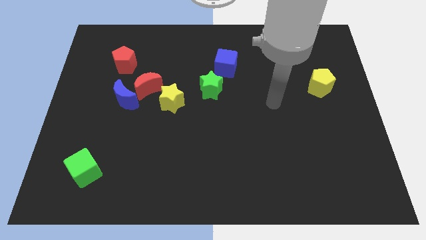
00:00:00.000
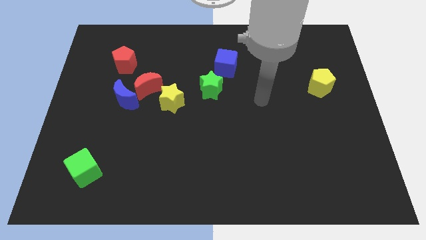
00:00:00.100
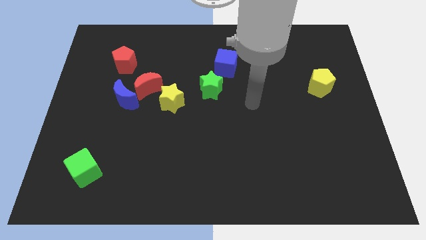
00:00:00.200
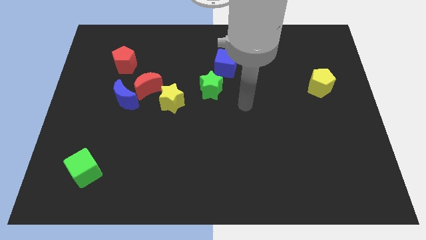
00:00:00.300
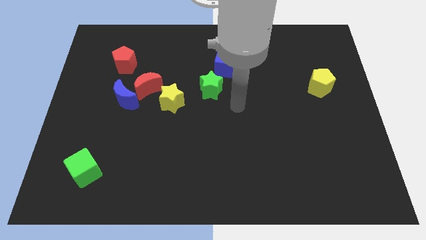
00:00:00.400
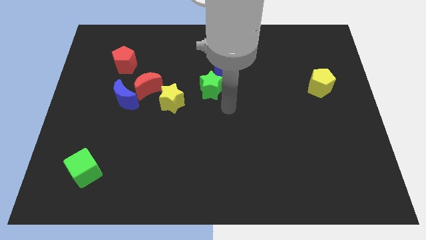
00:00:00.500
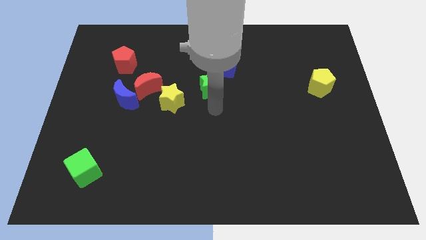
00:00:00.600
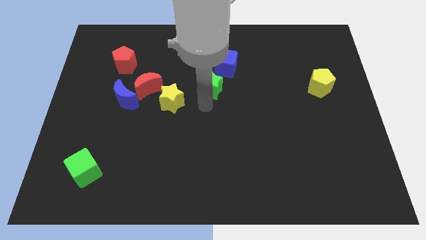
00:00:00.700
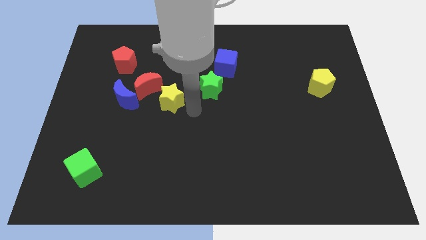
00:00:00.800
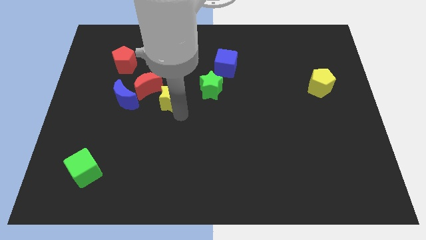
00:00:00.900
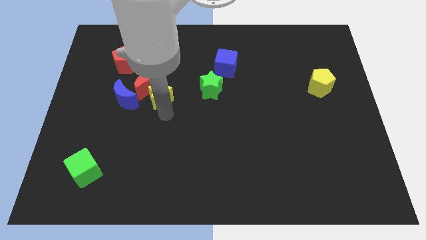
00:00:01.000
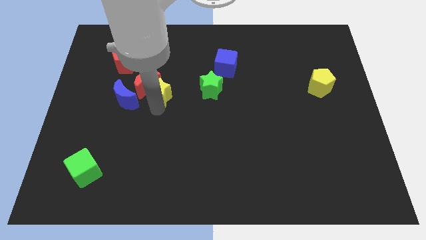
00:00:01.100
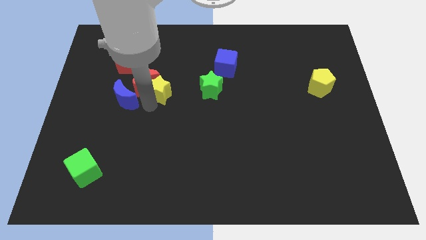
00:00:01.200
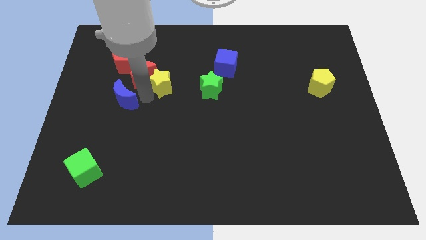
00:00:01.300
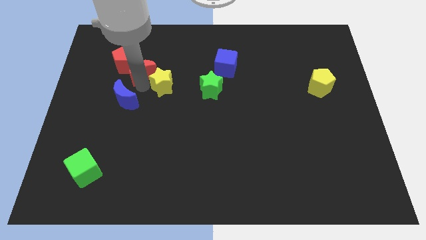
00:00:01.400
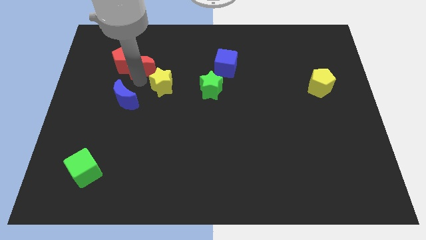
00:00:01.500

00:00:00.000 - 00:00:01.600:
move the blue moon away from the red moon

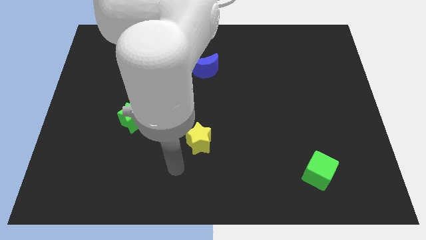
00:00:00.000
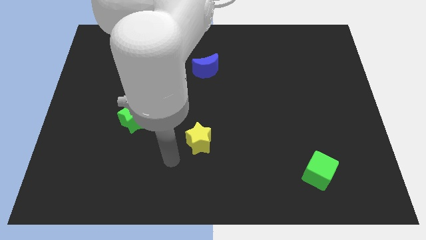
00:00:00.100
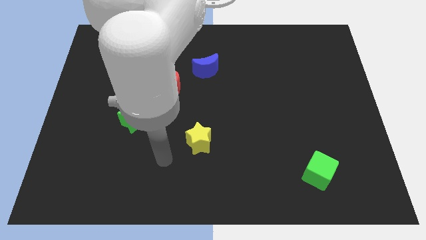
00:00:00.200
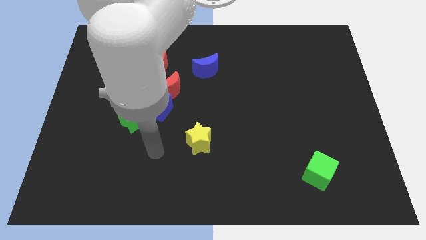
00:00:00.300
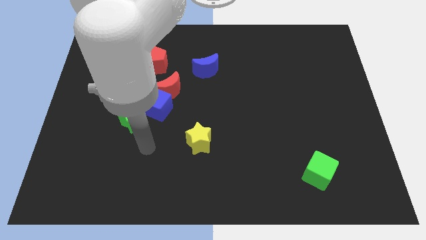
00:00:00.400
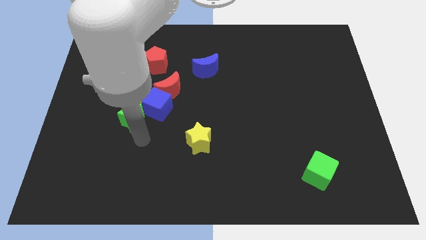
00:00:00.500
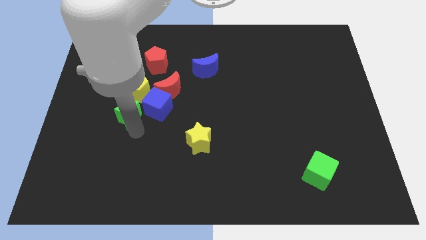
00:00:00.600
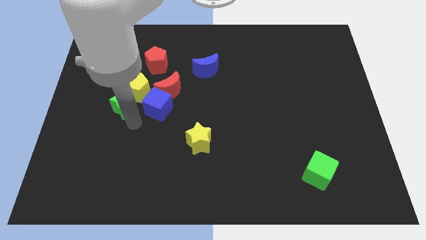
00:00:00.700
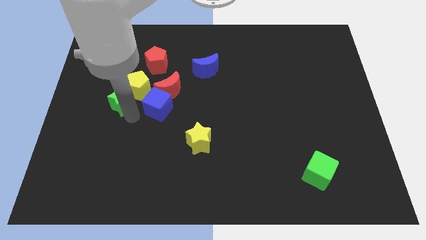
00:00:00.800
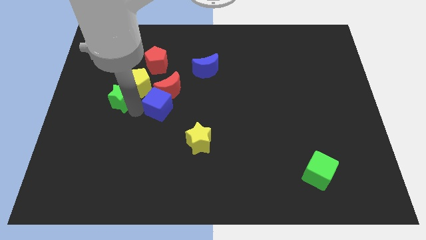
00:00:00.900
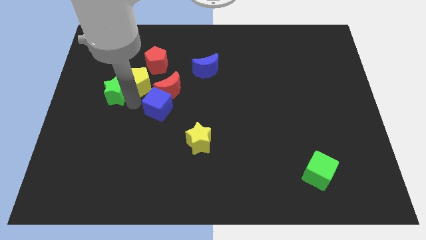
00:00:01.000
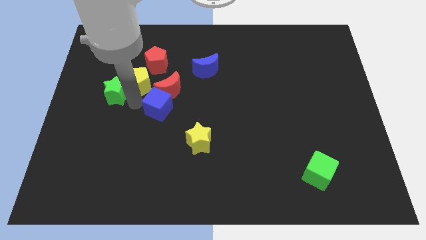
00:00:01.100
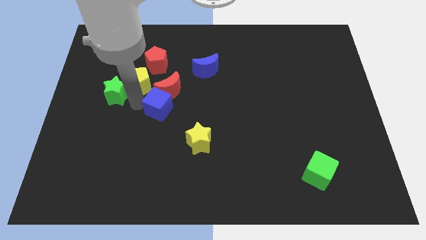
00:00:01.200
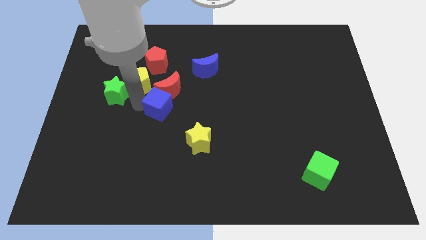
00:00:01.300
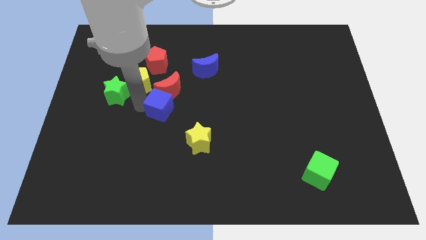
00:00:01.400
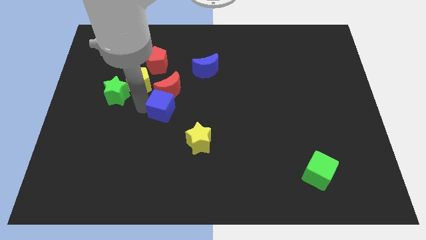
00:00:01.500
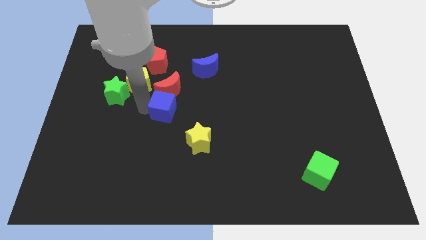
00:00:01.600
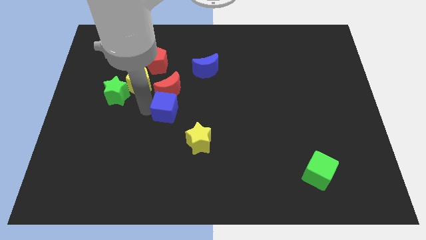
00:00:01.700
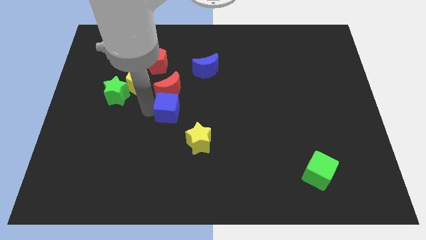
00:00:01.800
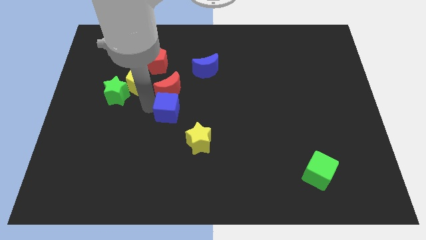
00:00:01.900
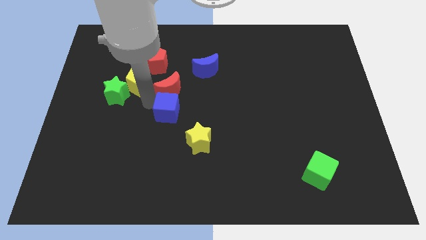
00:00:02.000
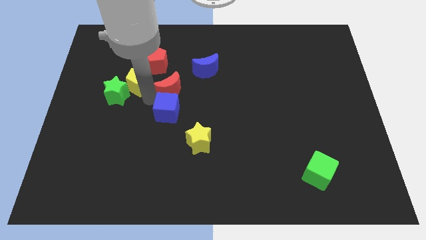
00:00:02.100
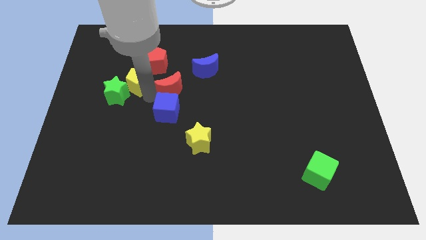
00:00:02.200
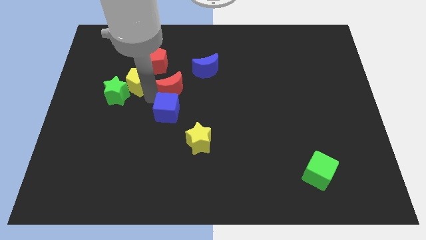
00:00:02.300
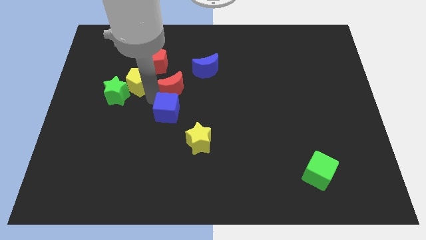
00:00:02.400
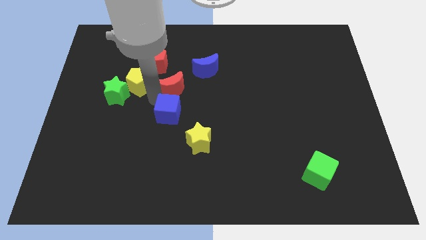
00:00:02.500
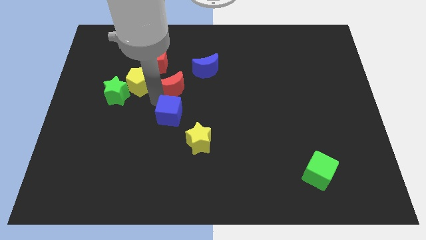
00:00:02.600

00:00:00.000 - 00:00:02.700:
pull the blue cube apart from the clump

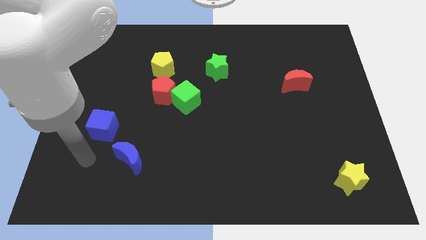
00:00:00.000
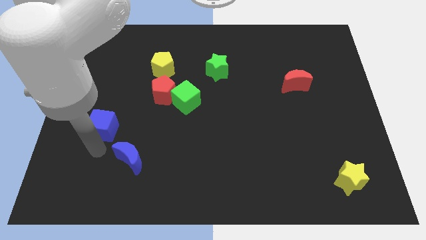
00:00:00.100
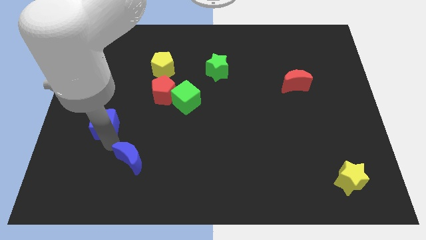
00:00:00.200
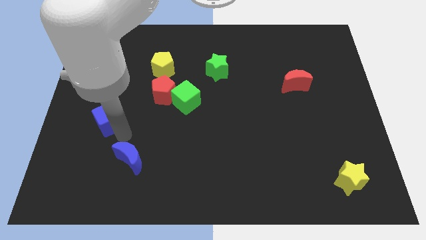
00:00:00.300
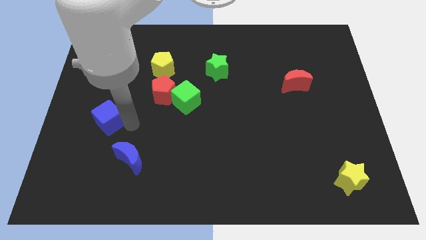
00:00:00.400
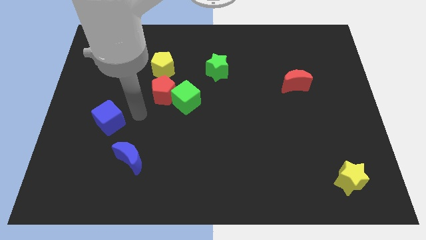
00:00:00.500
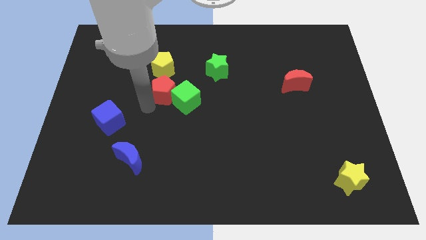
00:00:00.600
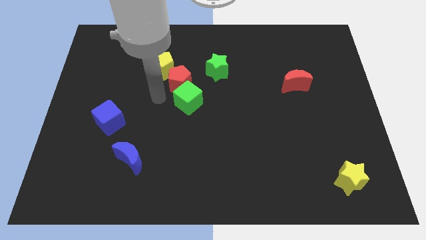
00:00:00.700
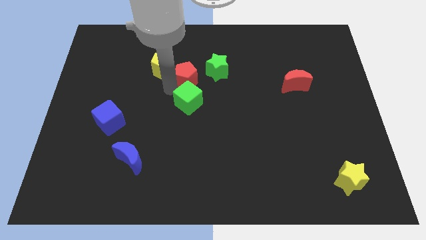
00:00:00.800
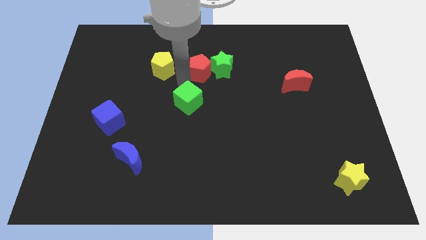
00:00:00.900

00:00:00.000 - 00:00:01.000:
move the green cube away from the red pentagon

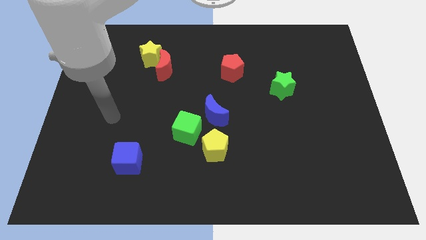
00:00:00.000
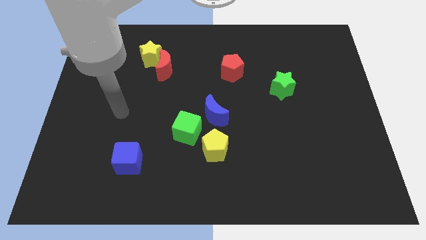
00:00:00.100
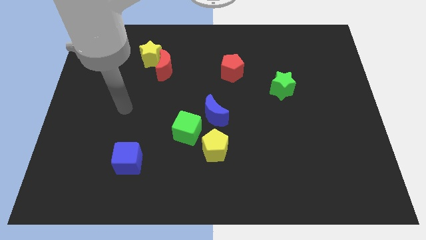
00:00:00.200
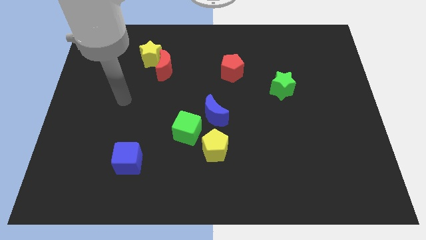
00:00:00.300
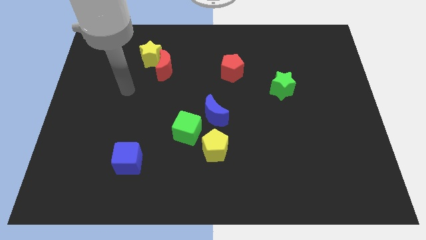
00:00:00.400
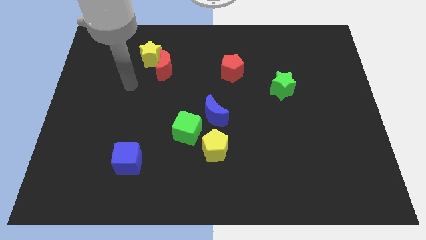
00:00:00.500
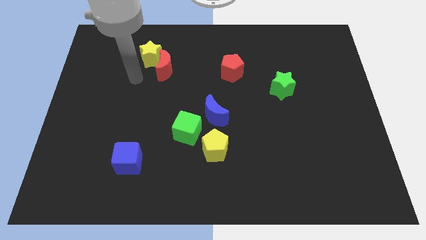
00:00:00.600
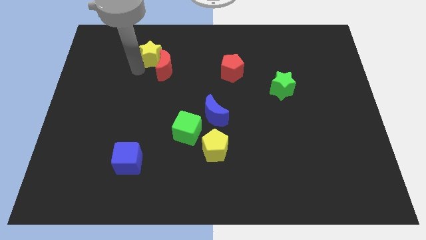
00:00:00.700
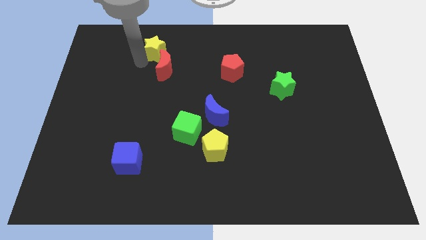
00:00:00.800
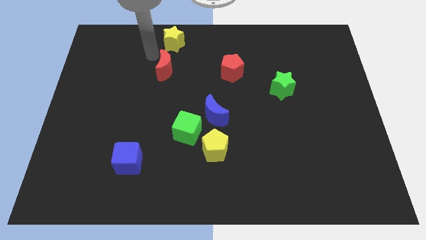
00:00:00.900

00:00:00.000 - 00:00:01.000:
pull the red moon apart from the yellow star

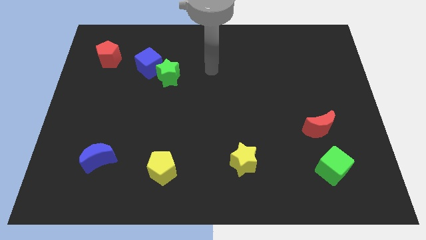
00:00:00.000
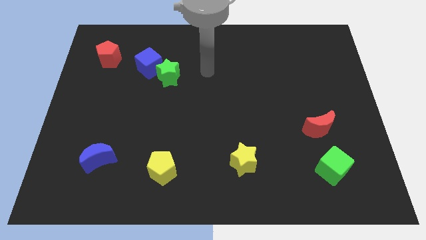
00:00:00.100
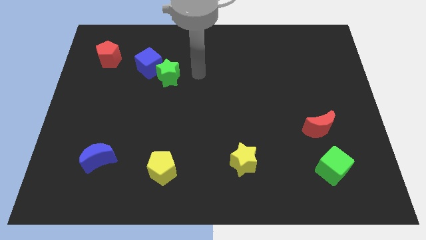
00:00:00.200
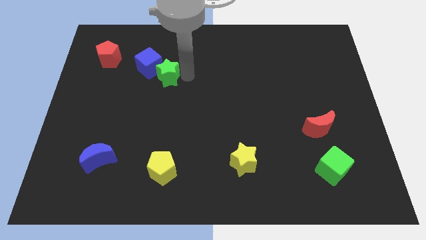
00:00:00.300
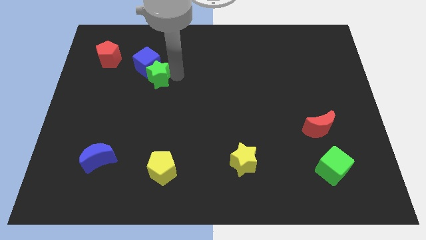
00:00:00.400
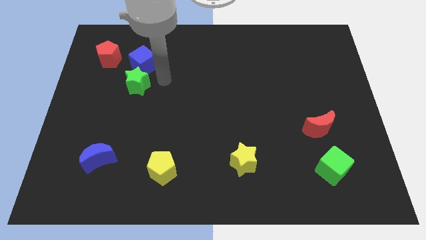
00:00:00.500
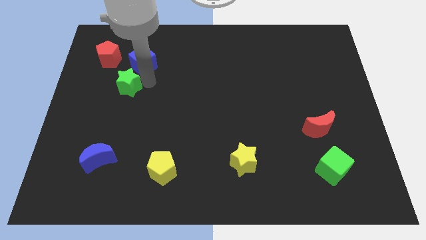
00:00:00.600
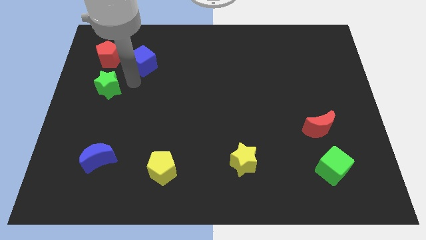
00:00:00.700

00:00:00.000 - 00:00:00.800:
move the blue cube away from the green star

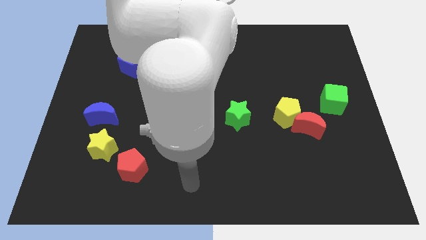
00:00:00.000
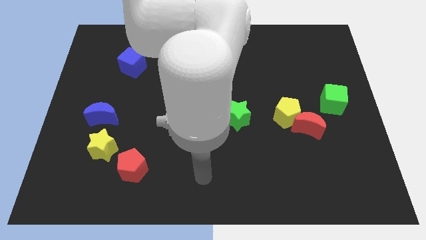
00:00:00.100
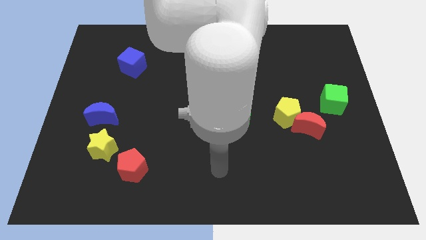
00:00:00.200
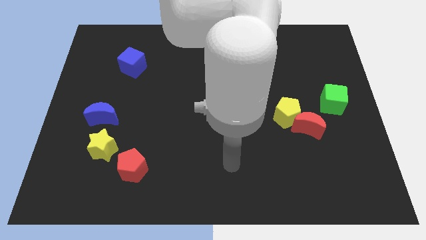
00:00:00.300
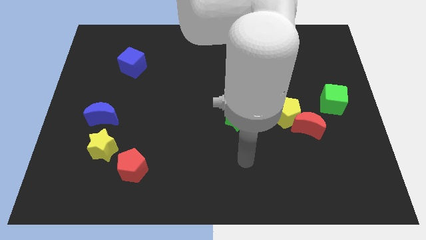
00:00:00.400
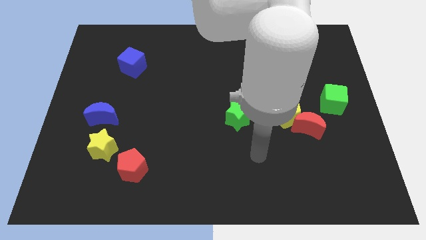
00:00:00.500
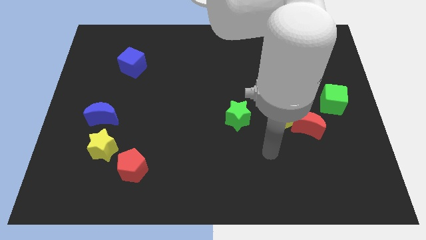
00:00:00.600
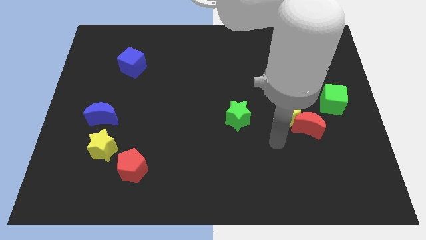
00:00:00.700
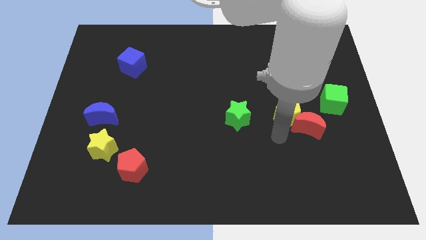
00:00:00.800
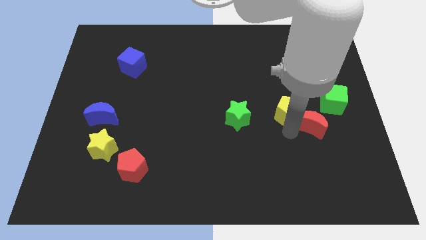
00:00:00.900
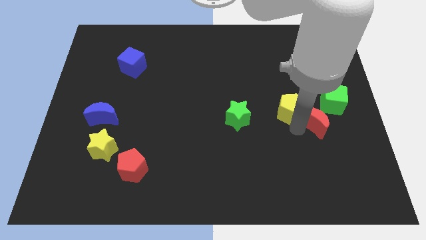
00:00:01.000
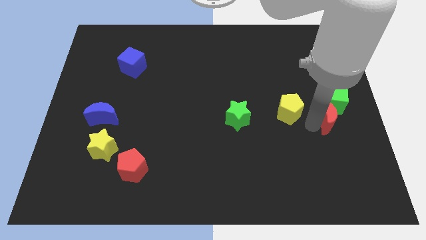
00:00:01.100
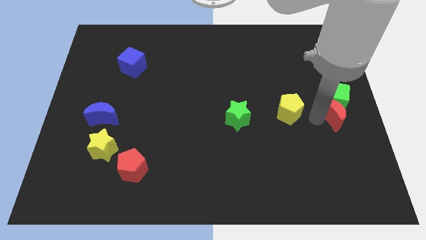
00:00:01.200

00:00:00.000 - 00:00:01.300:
separate the yellow pentagon from the red moon

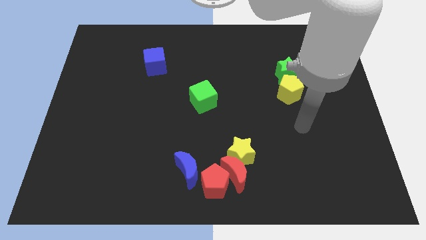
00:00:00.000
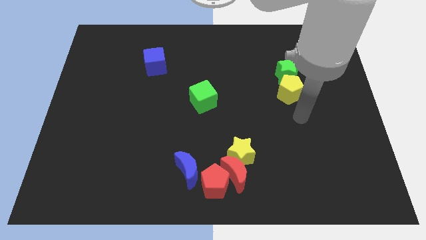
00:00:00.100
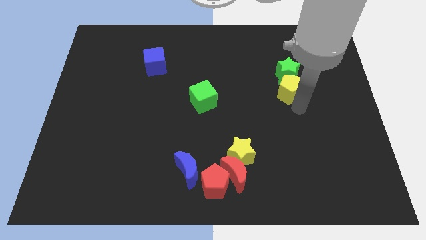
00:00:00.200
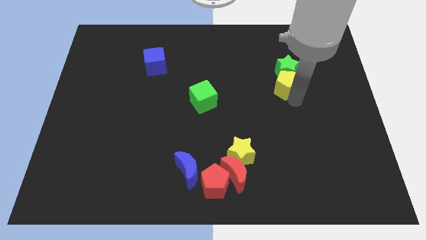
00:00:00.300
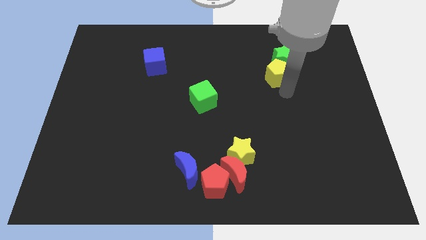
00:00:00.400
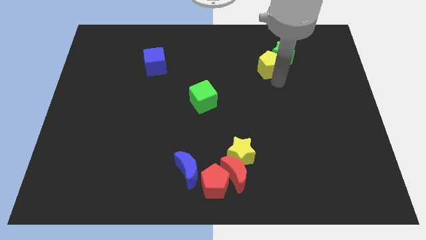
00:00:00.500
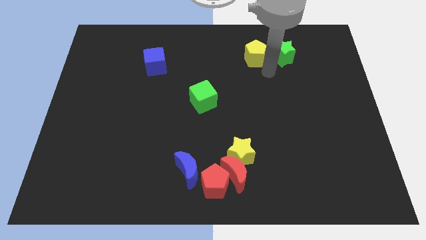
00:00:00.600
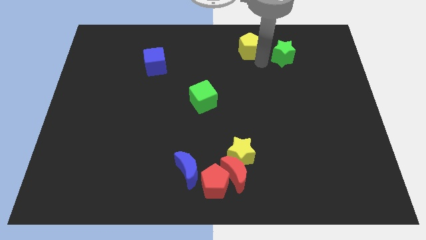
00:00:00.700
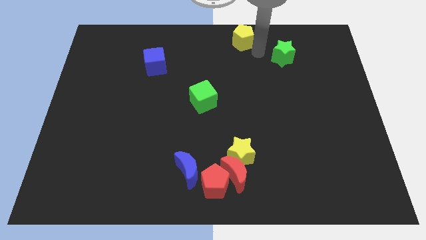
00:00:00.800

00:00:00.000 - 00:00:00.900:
separate the green star from the yellow pentagon
